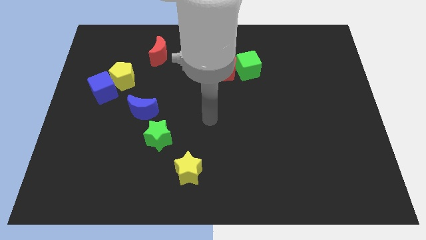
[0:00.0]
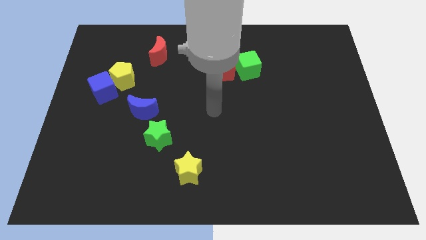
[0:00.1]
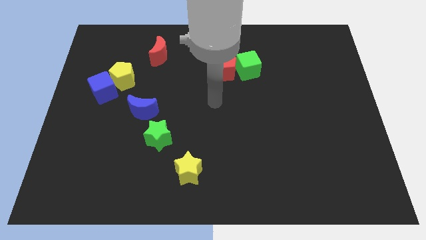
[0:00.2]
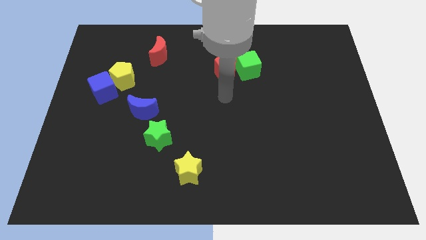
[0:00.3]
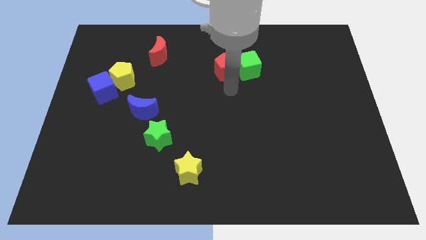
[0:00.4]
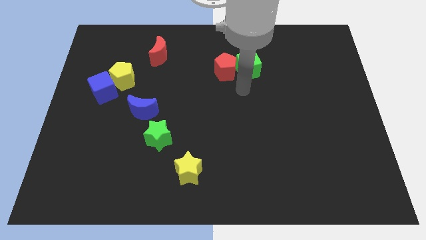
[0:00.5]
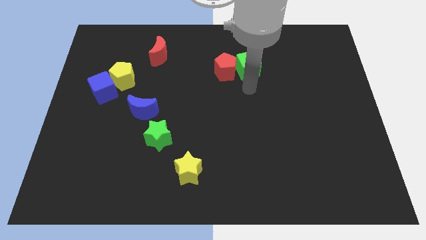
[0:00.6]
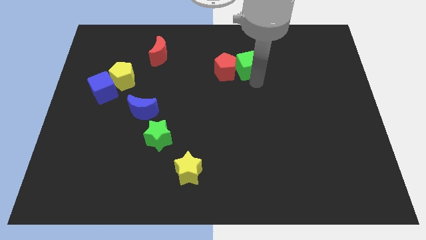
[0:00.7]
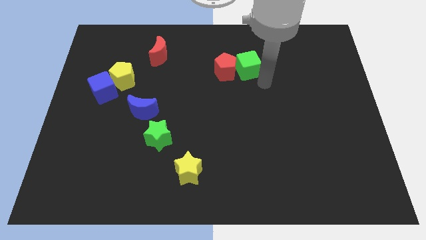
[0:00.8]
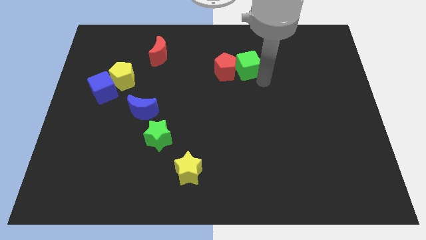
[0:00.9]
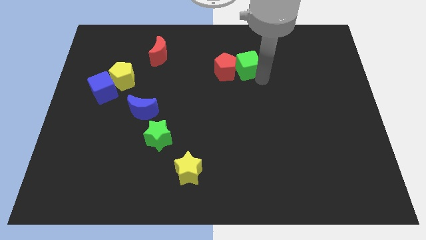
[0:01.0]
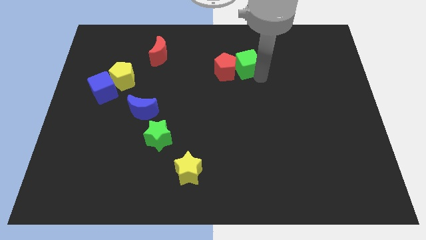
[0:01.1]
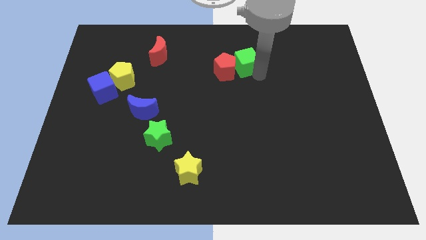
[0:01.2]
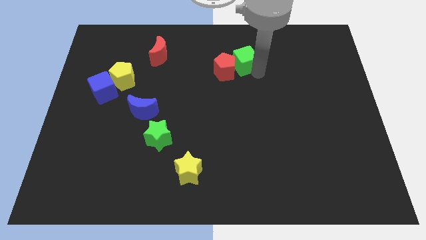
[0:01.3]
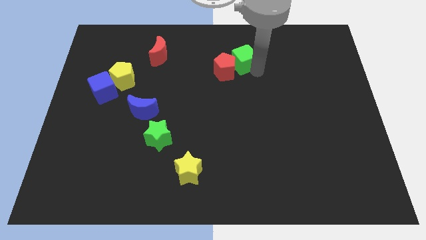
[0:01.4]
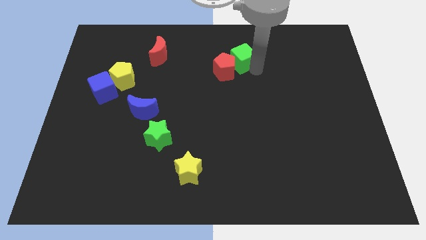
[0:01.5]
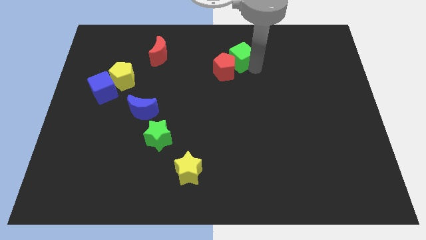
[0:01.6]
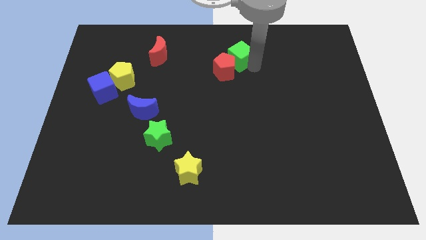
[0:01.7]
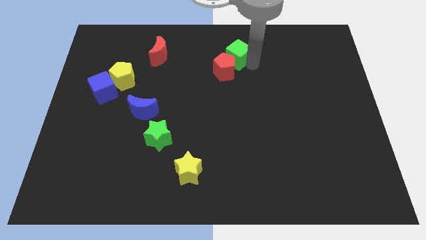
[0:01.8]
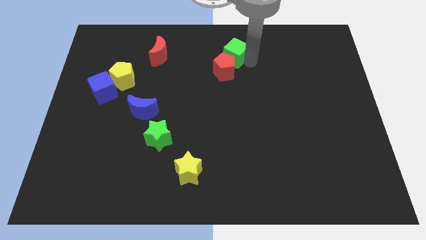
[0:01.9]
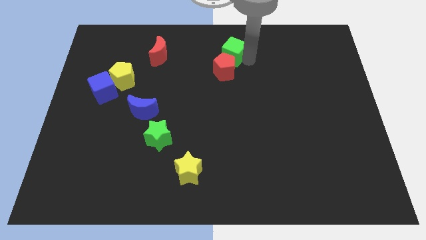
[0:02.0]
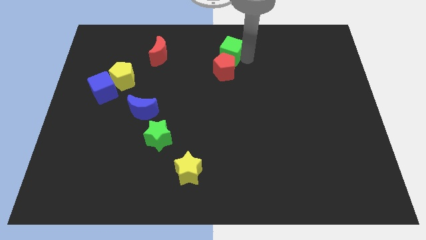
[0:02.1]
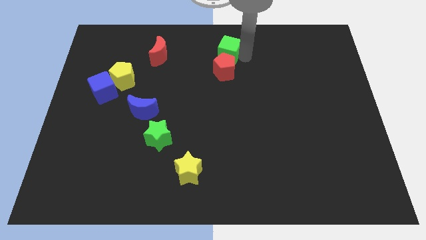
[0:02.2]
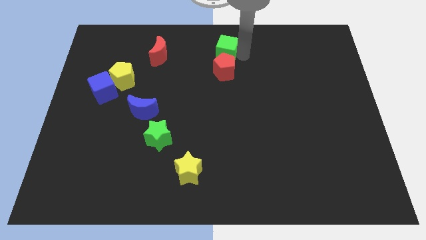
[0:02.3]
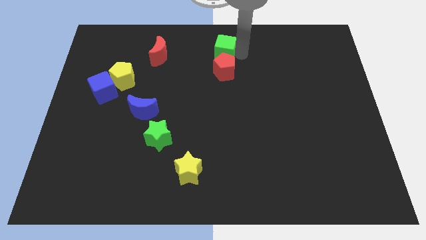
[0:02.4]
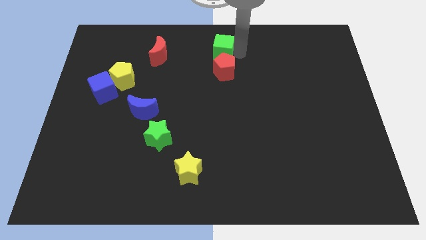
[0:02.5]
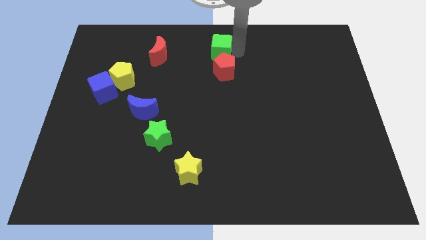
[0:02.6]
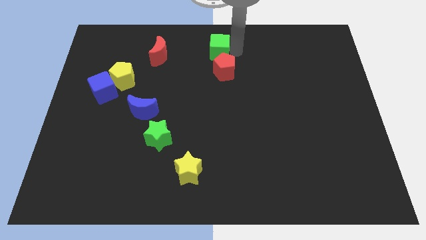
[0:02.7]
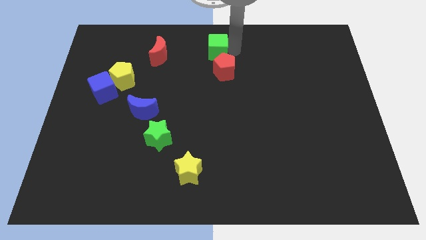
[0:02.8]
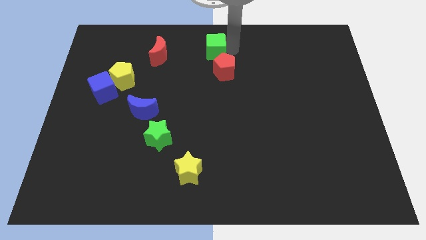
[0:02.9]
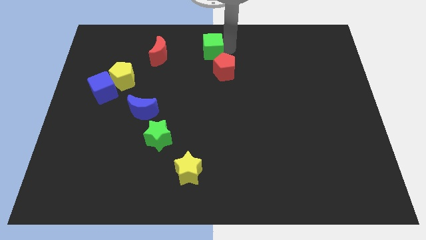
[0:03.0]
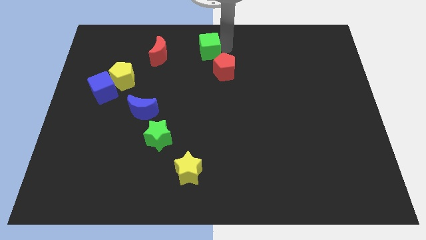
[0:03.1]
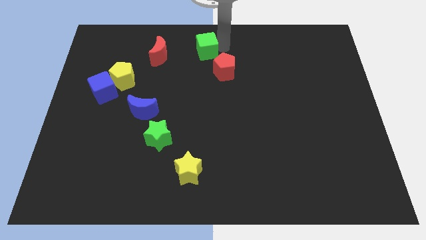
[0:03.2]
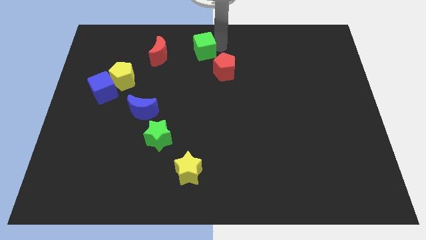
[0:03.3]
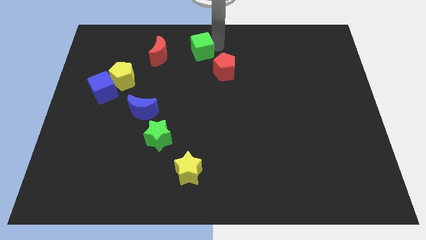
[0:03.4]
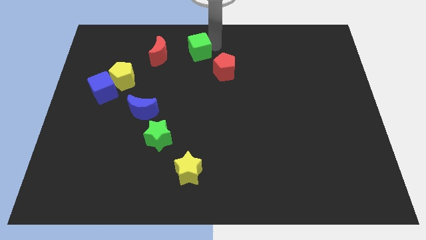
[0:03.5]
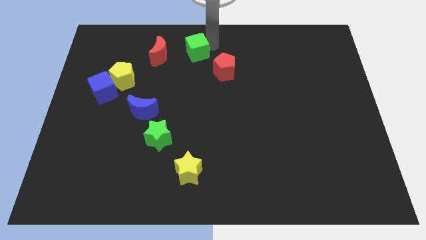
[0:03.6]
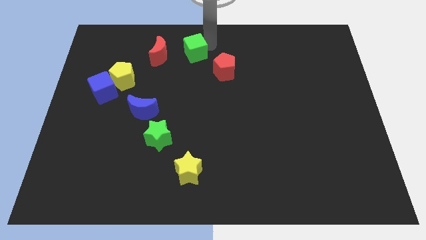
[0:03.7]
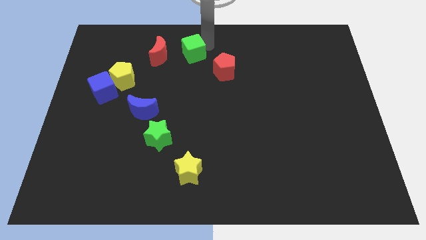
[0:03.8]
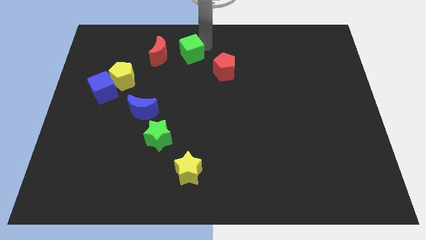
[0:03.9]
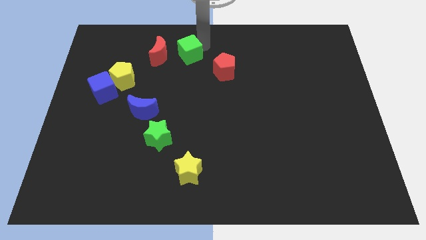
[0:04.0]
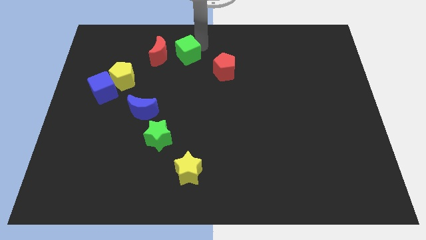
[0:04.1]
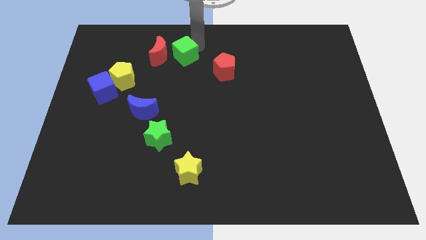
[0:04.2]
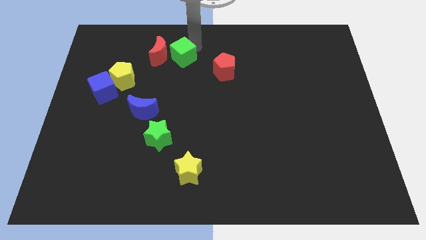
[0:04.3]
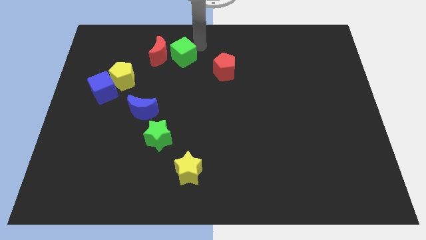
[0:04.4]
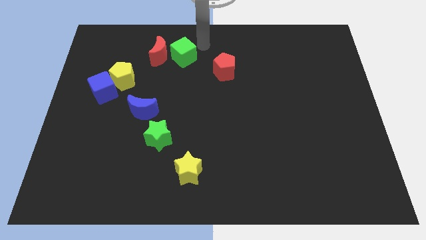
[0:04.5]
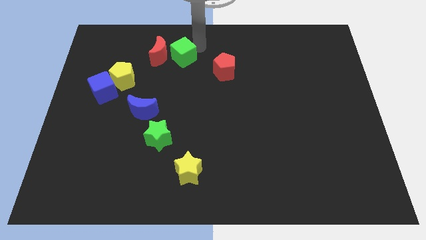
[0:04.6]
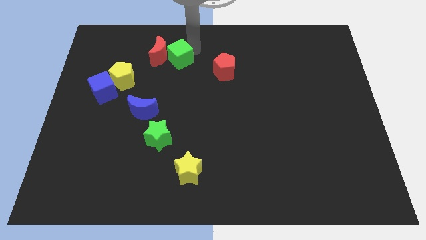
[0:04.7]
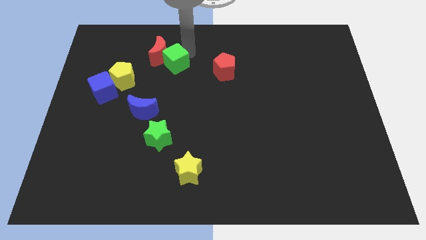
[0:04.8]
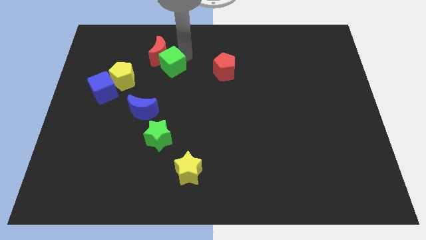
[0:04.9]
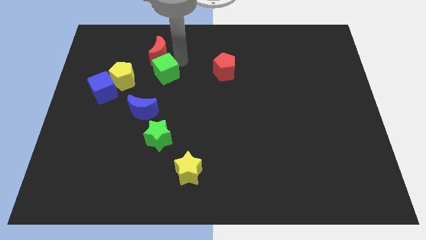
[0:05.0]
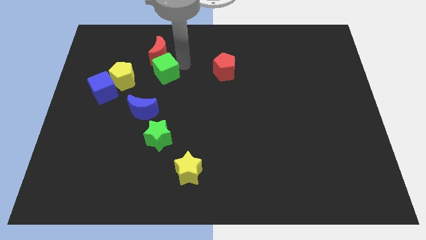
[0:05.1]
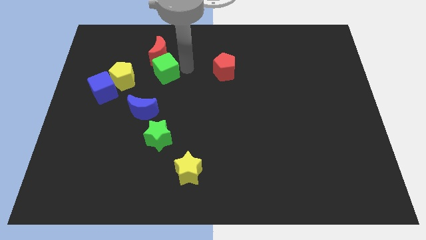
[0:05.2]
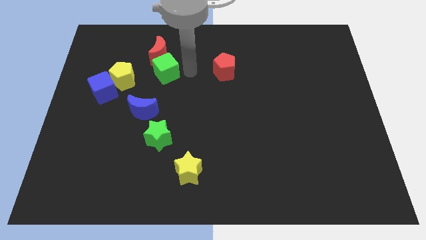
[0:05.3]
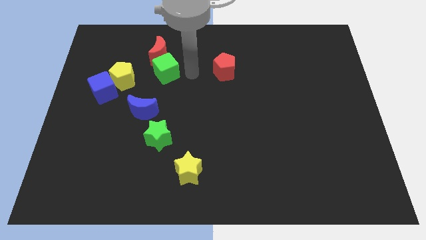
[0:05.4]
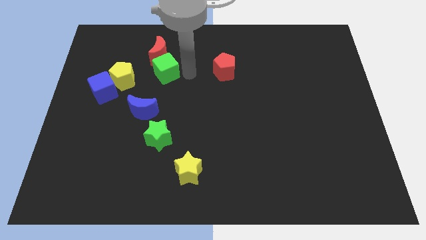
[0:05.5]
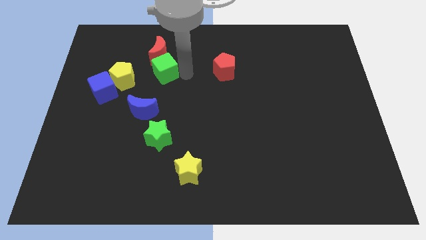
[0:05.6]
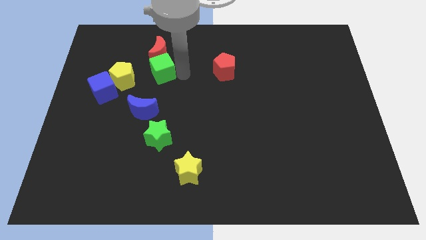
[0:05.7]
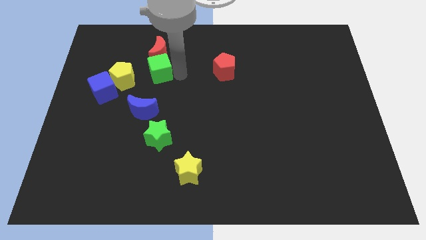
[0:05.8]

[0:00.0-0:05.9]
slide the green cube to the bottom left of the red moon

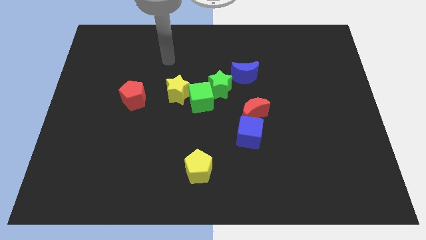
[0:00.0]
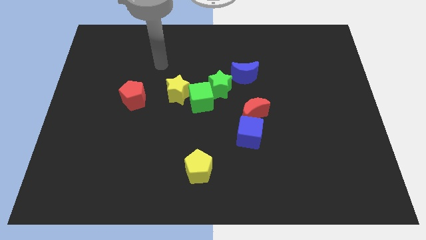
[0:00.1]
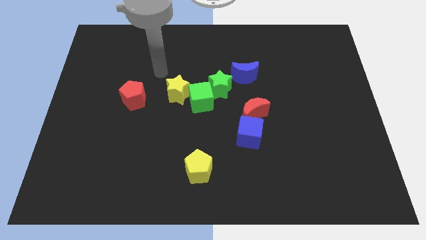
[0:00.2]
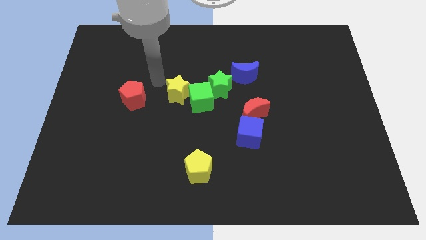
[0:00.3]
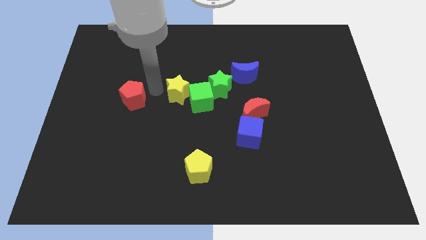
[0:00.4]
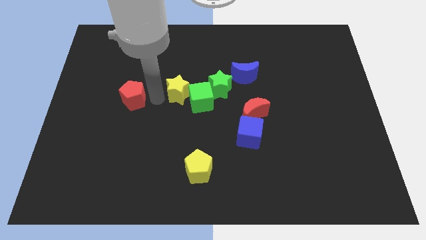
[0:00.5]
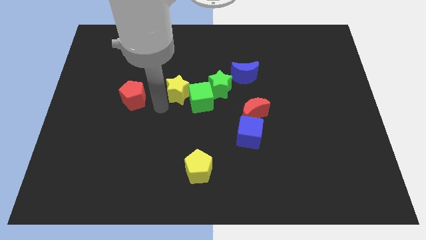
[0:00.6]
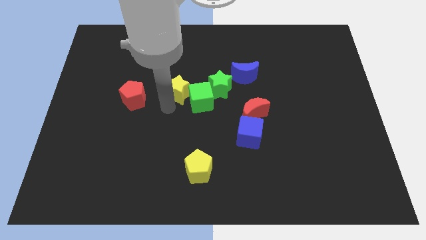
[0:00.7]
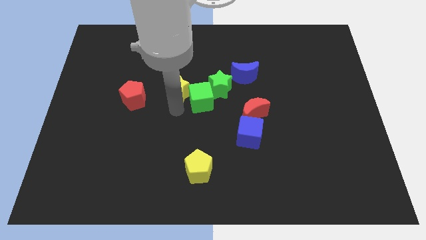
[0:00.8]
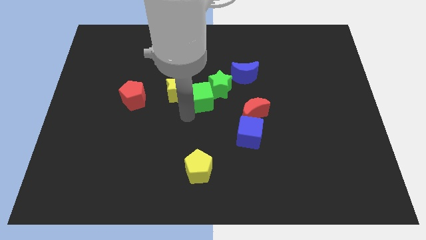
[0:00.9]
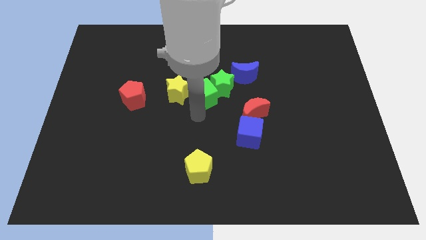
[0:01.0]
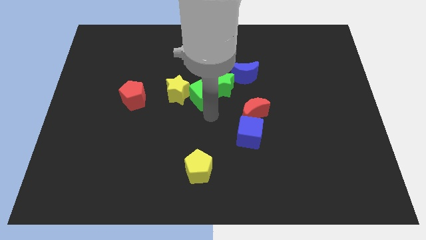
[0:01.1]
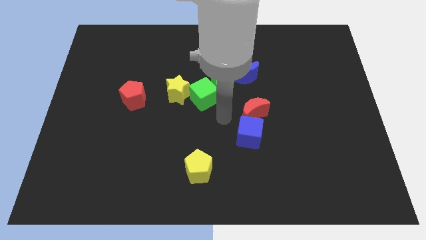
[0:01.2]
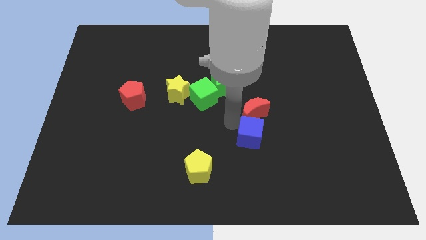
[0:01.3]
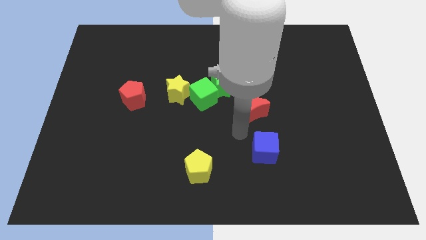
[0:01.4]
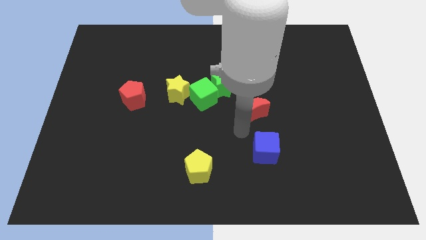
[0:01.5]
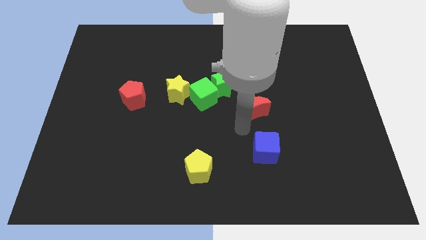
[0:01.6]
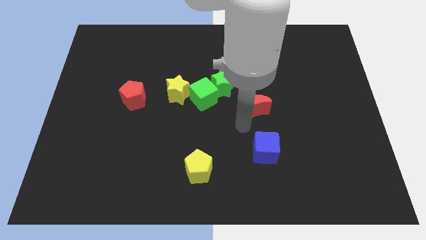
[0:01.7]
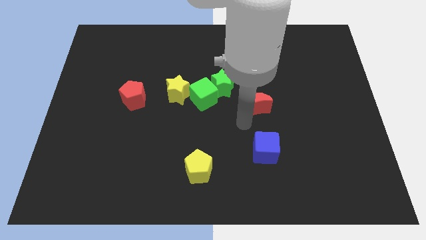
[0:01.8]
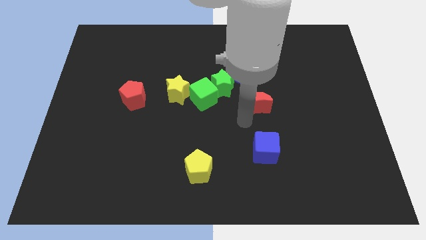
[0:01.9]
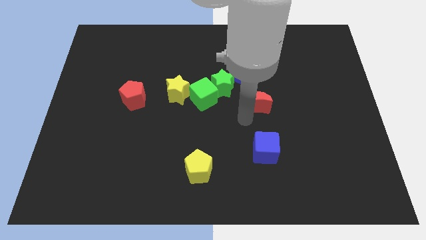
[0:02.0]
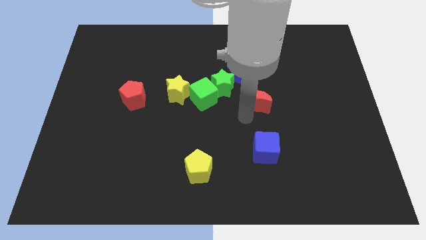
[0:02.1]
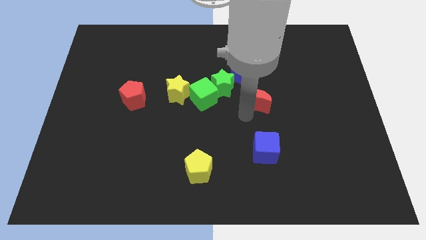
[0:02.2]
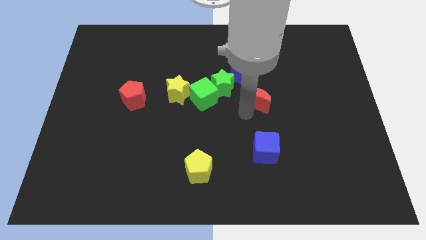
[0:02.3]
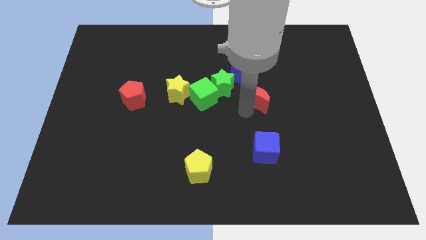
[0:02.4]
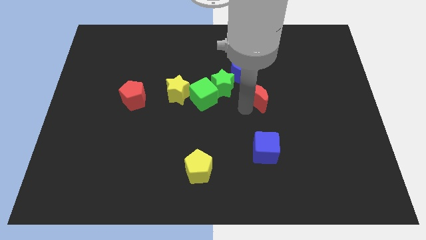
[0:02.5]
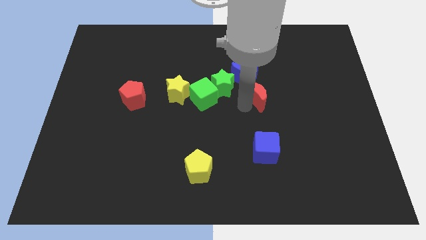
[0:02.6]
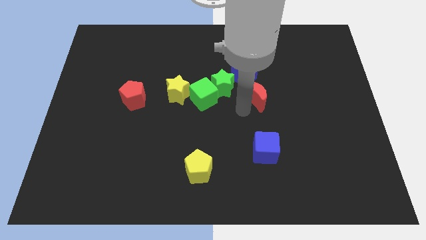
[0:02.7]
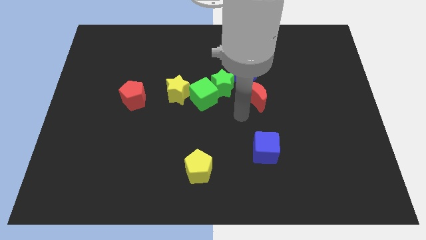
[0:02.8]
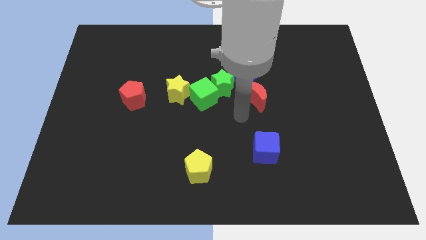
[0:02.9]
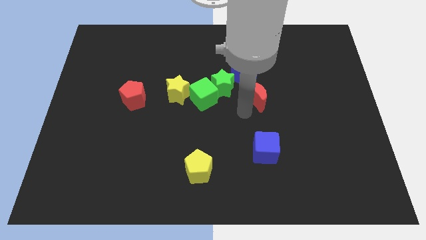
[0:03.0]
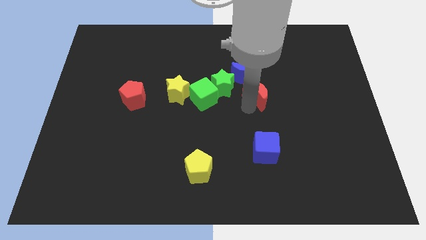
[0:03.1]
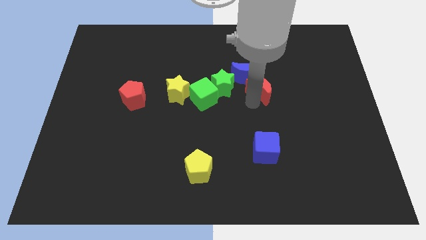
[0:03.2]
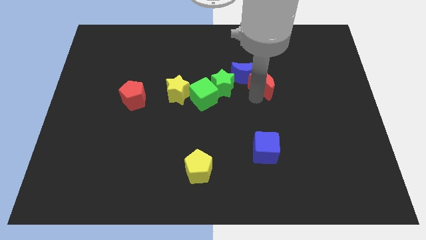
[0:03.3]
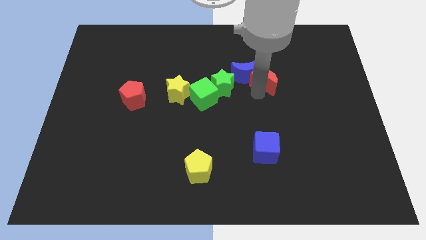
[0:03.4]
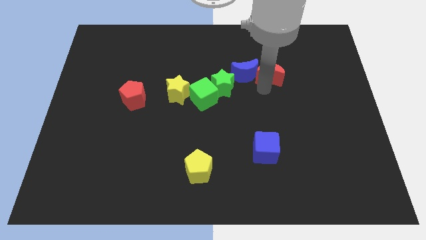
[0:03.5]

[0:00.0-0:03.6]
slide the red moon to the top right side of the blue moon
